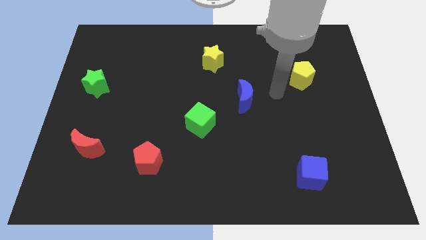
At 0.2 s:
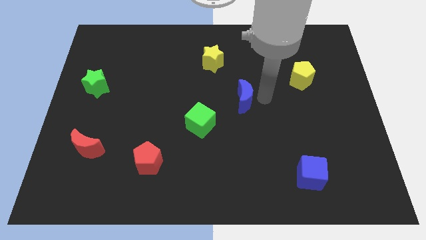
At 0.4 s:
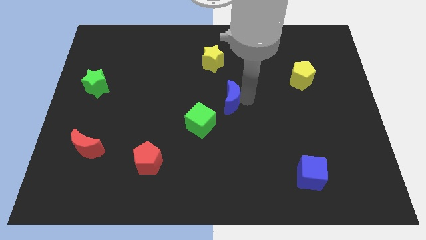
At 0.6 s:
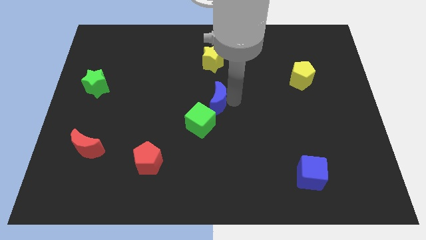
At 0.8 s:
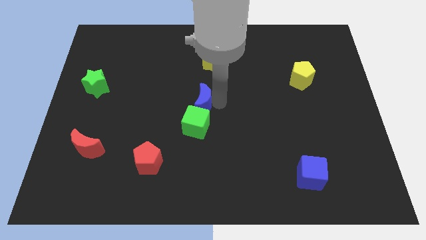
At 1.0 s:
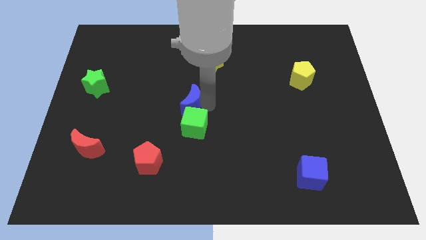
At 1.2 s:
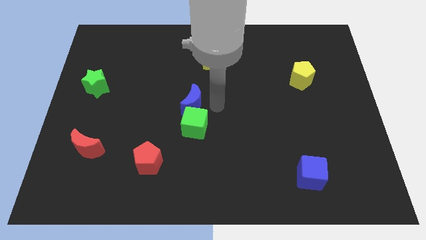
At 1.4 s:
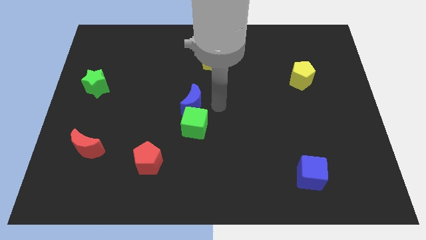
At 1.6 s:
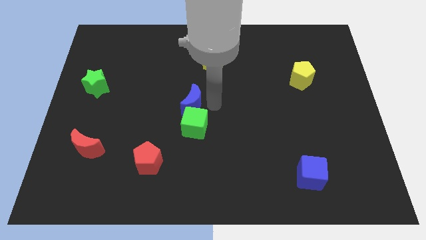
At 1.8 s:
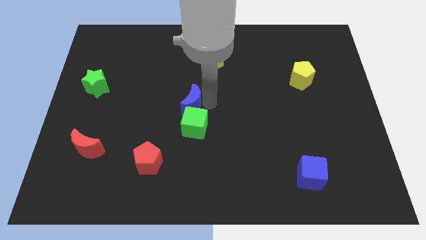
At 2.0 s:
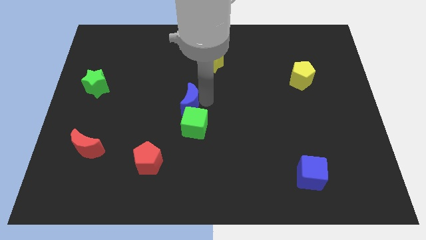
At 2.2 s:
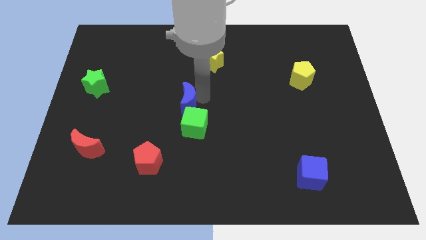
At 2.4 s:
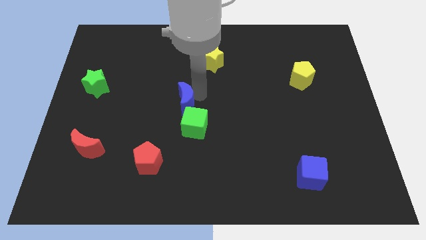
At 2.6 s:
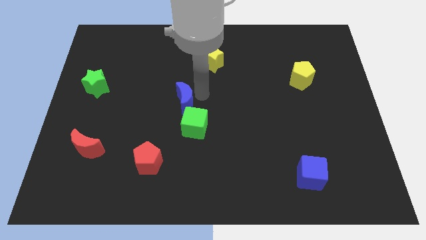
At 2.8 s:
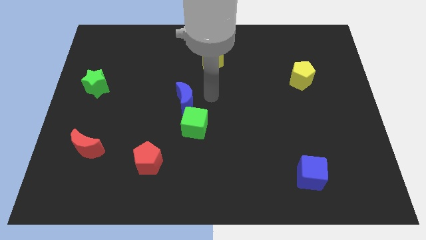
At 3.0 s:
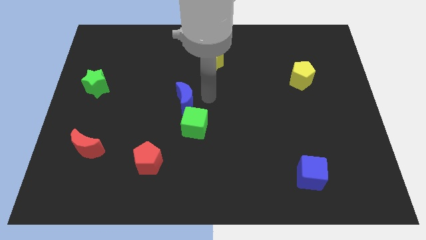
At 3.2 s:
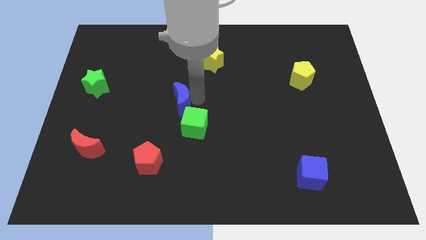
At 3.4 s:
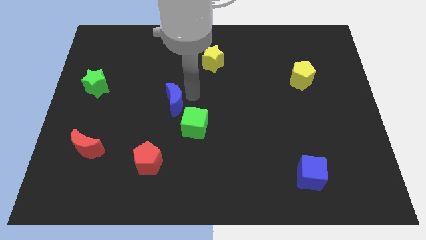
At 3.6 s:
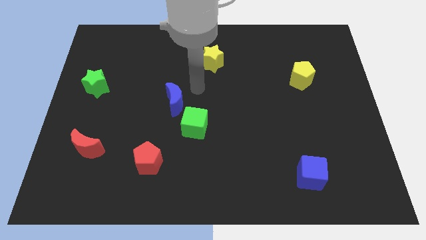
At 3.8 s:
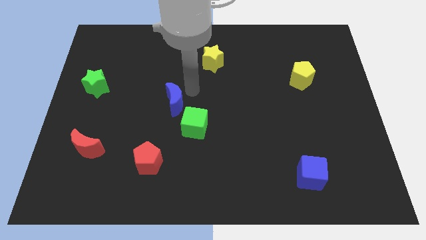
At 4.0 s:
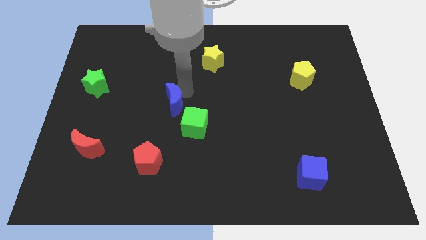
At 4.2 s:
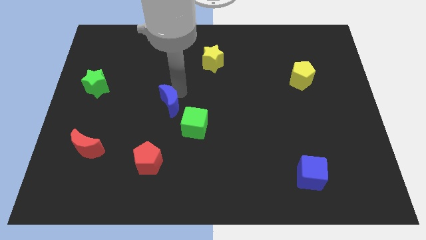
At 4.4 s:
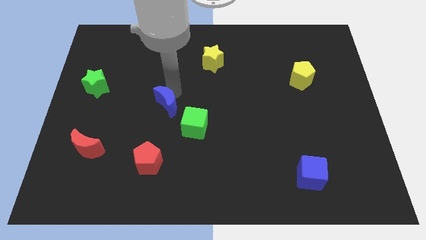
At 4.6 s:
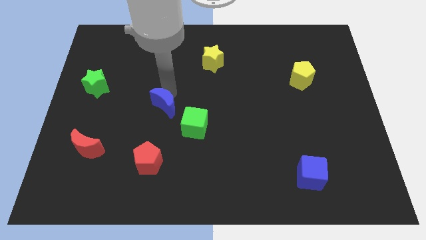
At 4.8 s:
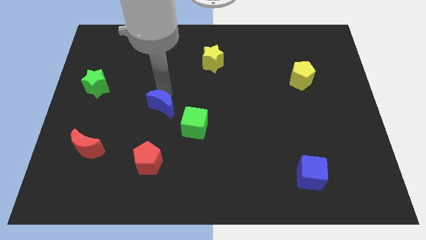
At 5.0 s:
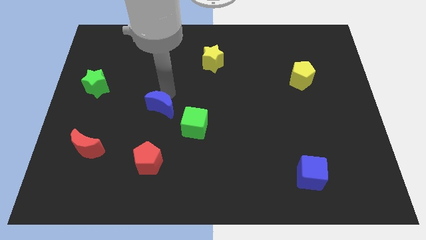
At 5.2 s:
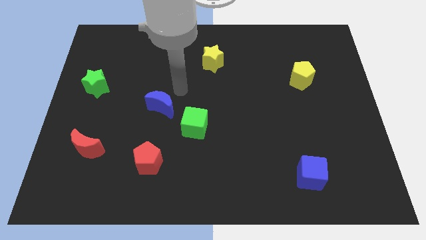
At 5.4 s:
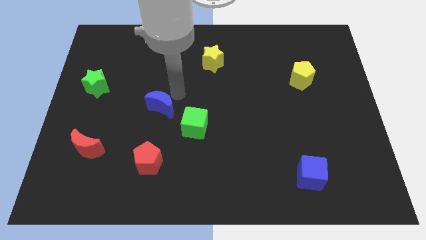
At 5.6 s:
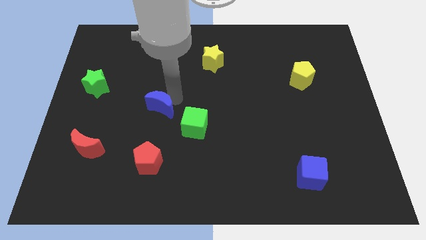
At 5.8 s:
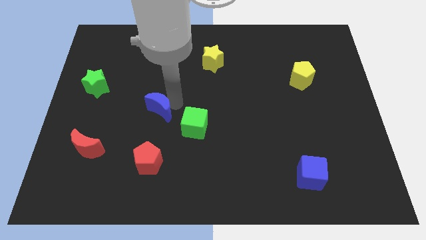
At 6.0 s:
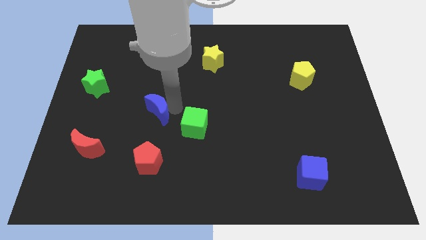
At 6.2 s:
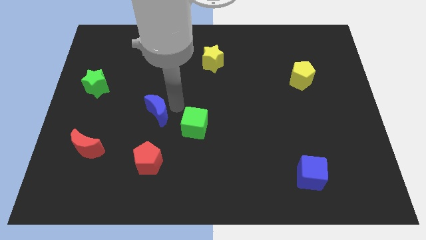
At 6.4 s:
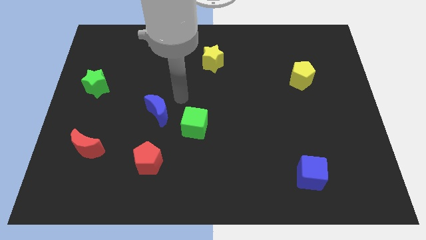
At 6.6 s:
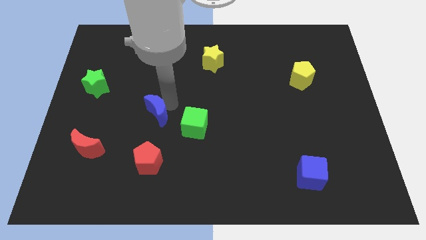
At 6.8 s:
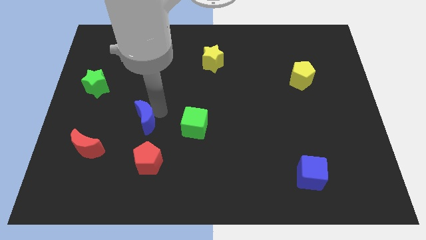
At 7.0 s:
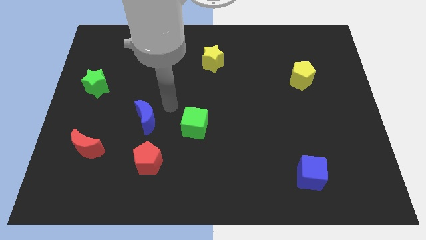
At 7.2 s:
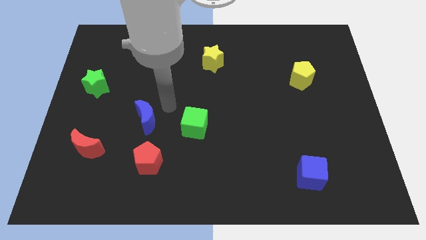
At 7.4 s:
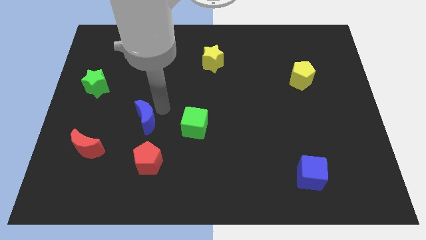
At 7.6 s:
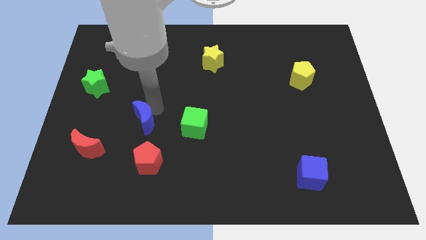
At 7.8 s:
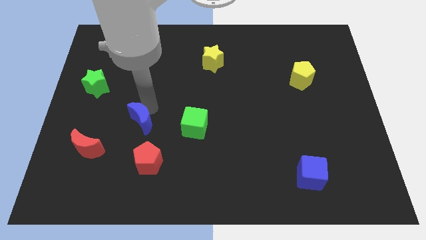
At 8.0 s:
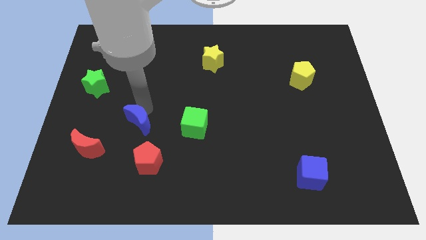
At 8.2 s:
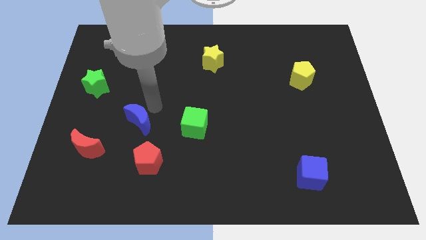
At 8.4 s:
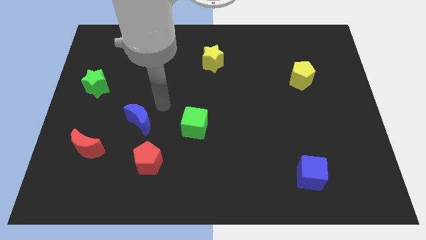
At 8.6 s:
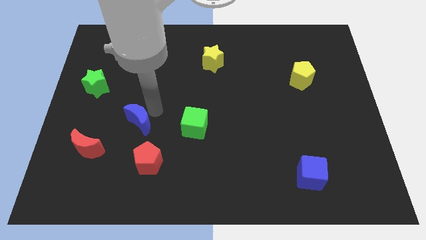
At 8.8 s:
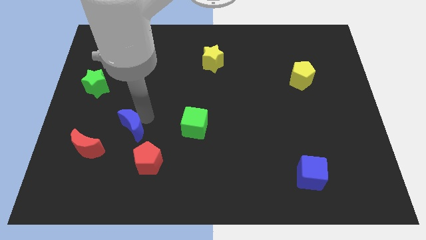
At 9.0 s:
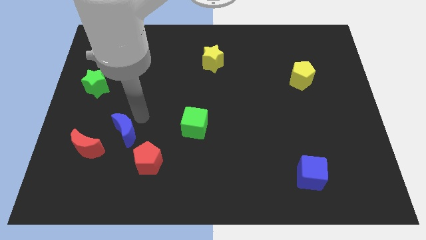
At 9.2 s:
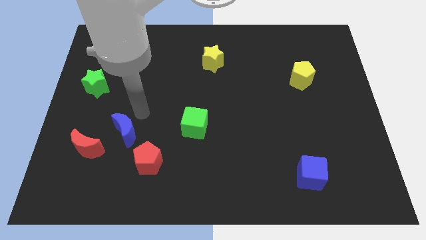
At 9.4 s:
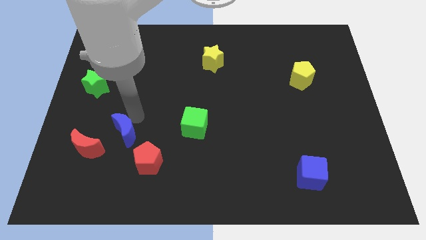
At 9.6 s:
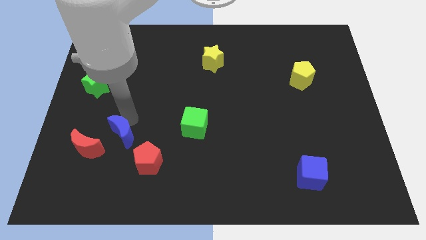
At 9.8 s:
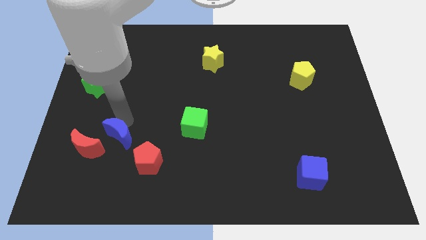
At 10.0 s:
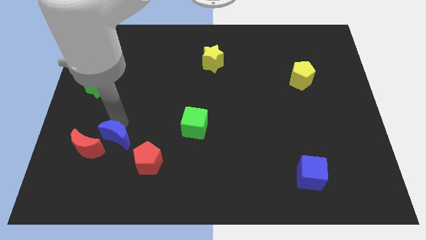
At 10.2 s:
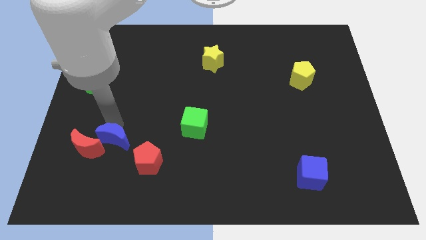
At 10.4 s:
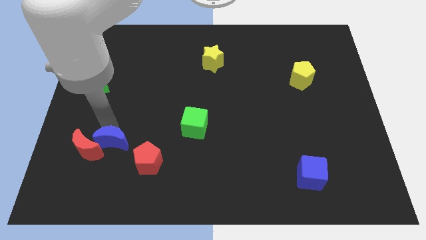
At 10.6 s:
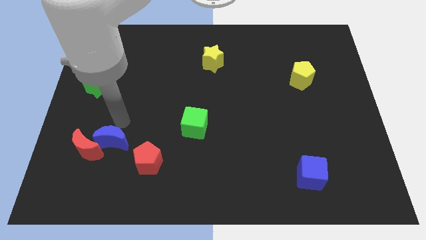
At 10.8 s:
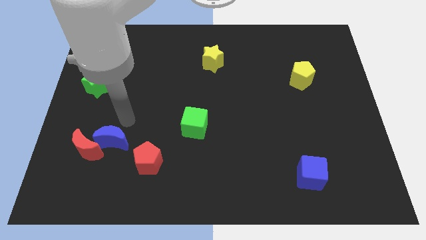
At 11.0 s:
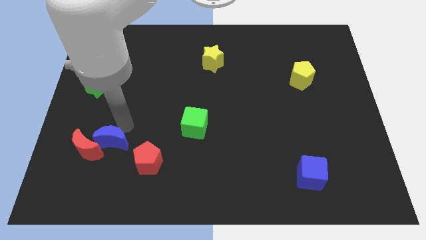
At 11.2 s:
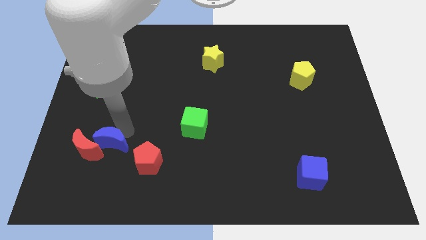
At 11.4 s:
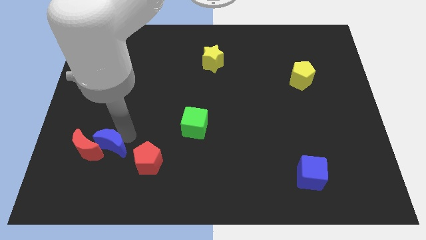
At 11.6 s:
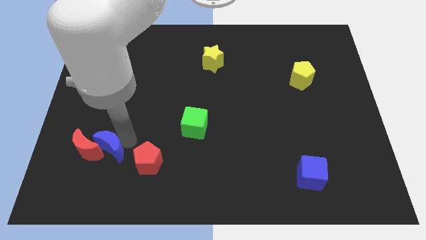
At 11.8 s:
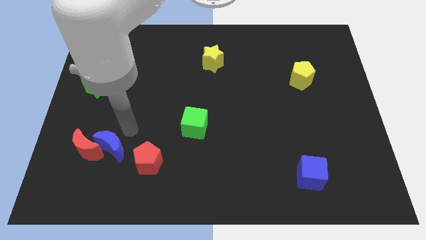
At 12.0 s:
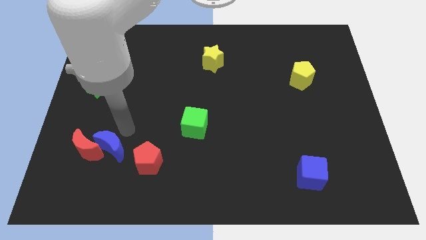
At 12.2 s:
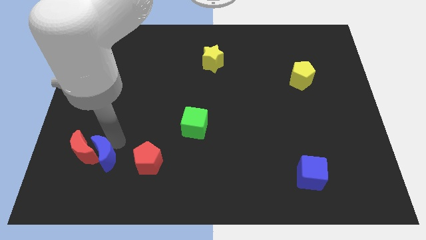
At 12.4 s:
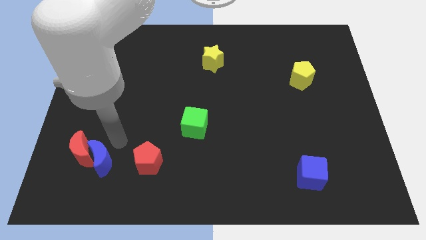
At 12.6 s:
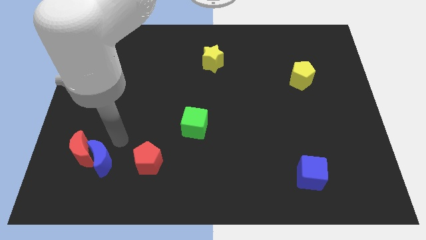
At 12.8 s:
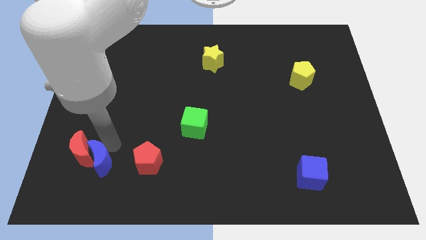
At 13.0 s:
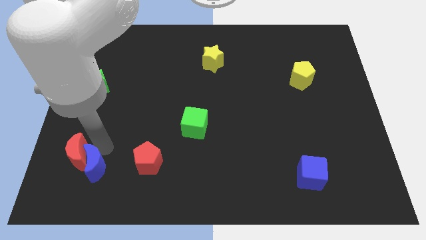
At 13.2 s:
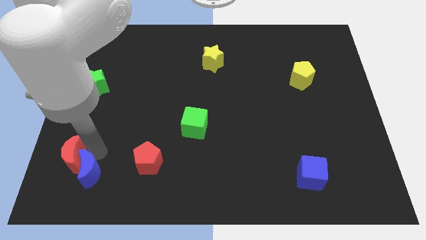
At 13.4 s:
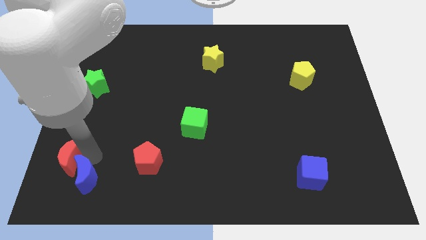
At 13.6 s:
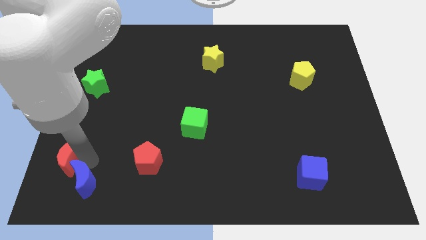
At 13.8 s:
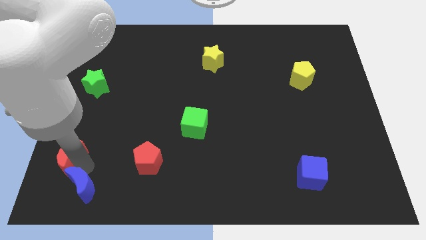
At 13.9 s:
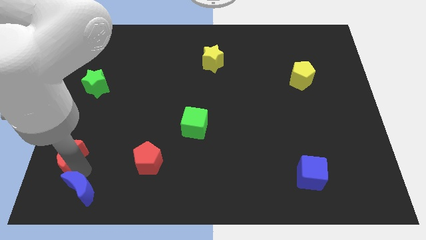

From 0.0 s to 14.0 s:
put the blue moon to the bottom left corner
